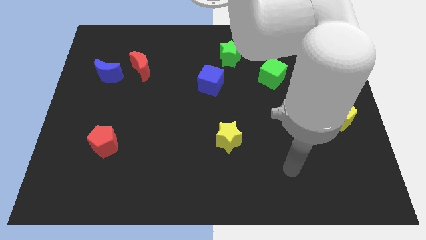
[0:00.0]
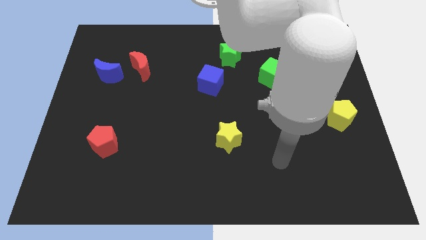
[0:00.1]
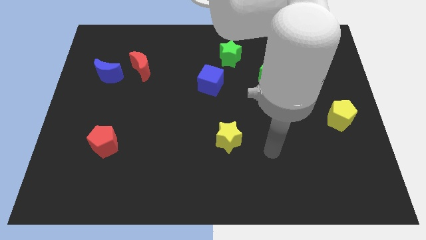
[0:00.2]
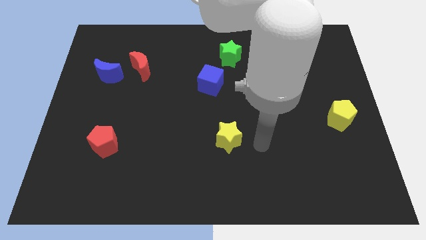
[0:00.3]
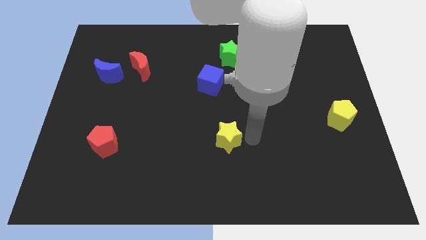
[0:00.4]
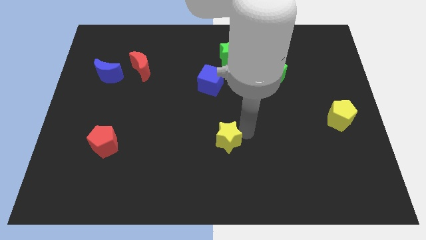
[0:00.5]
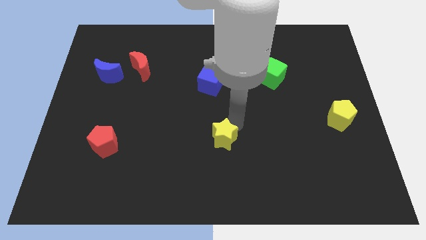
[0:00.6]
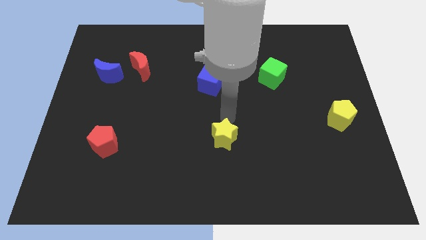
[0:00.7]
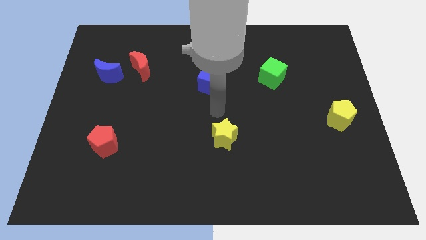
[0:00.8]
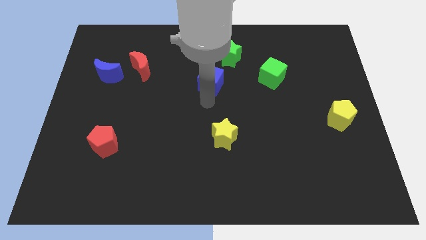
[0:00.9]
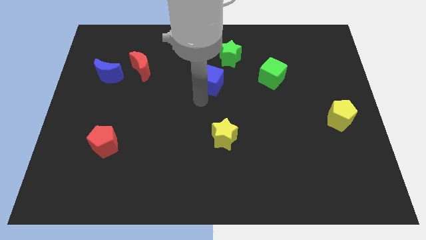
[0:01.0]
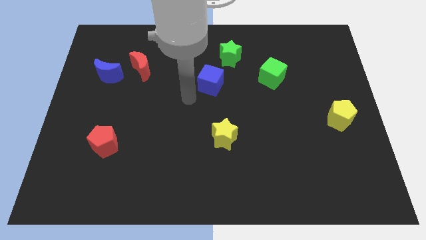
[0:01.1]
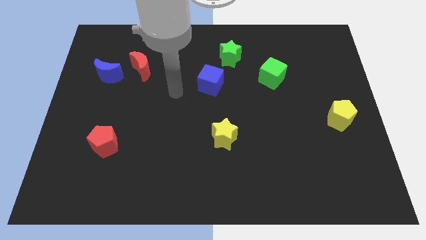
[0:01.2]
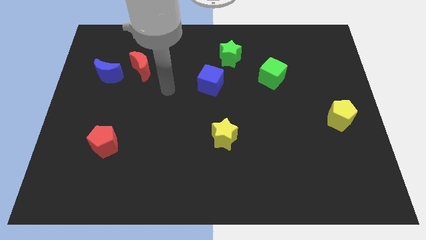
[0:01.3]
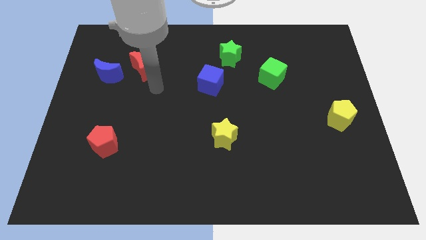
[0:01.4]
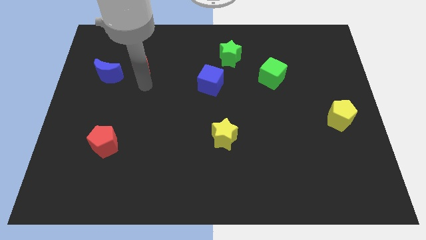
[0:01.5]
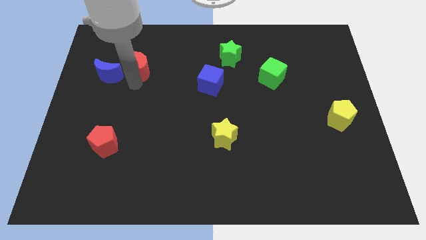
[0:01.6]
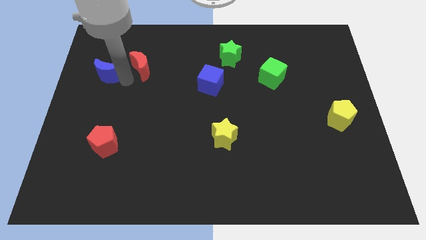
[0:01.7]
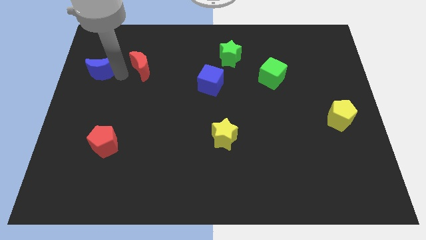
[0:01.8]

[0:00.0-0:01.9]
move the red moon away from the blue moon

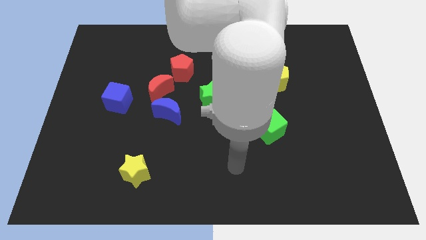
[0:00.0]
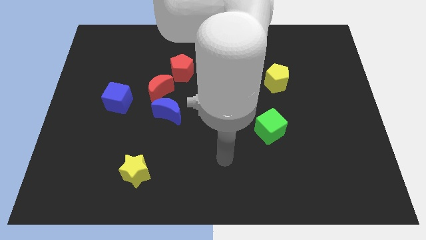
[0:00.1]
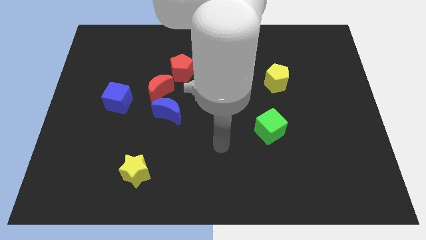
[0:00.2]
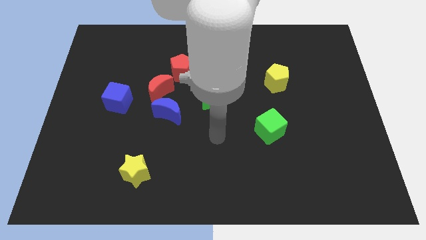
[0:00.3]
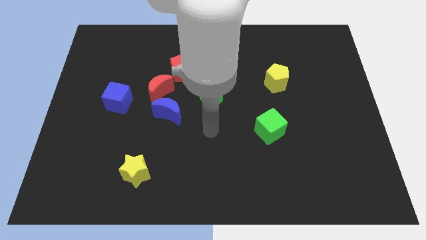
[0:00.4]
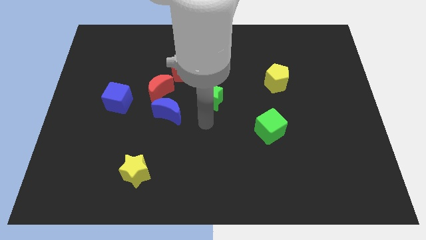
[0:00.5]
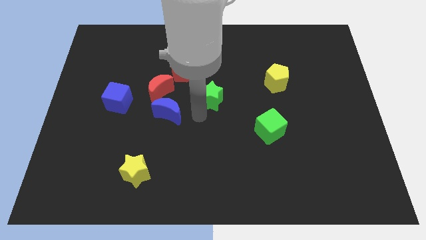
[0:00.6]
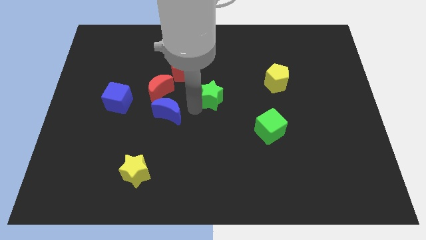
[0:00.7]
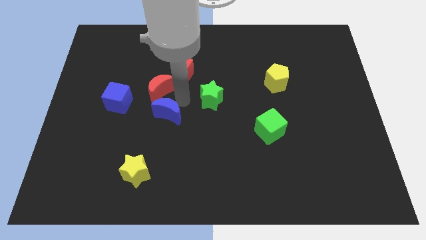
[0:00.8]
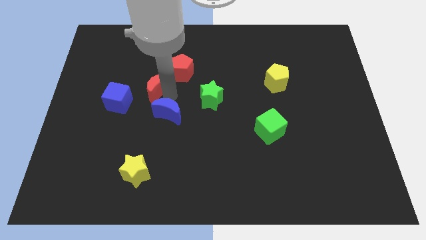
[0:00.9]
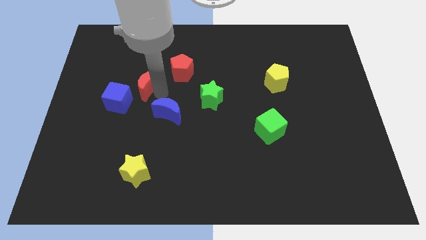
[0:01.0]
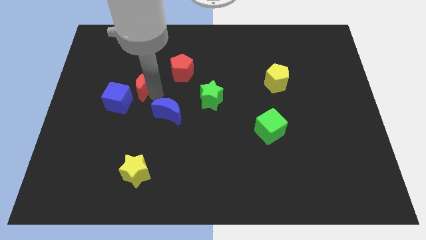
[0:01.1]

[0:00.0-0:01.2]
separate the blue moon from the red moon

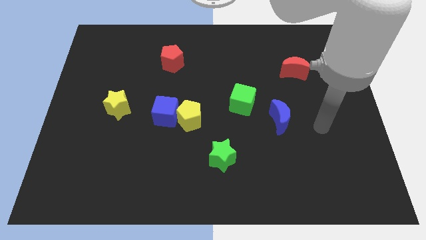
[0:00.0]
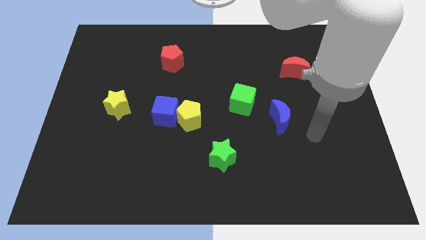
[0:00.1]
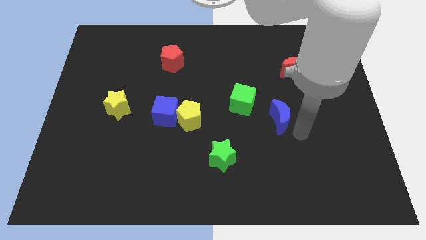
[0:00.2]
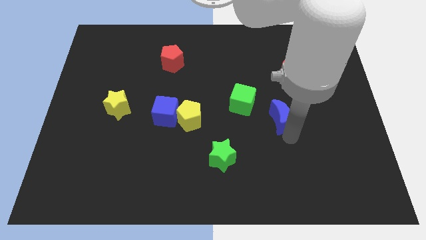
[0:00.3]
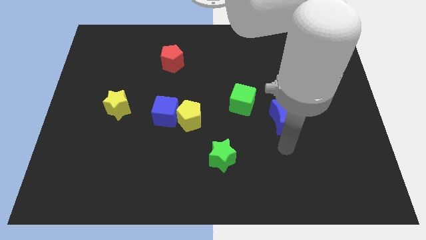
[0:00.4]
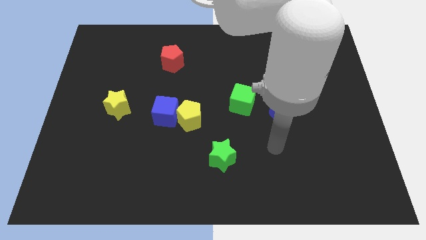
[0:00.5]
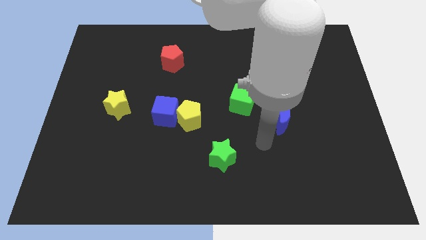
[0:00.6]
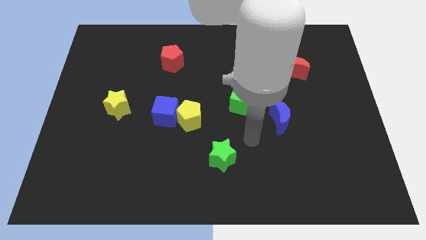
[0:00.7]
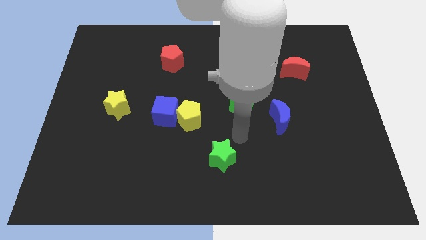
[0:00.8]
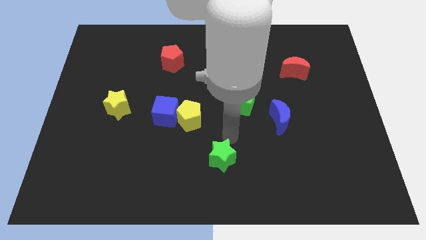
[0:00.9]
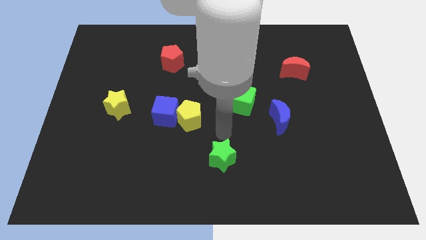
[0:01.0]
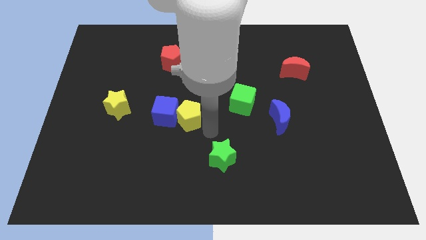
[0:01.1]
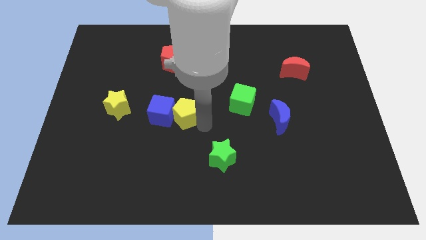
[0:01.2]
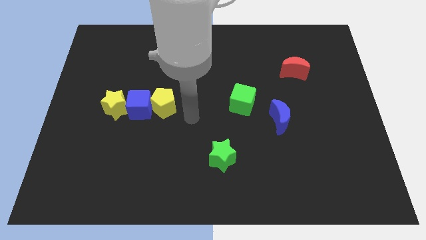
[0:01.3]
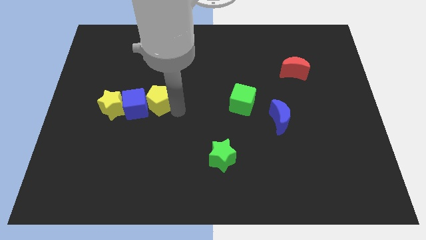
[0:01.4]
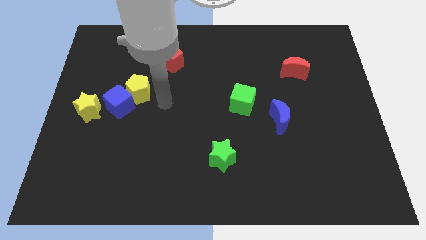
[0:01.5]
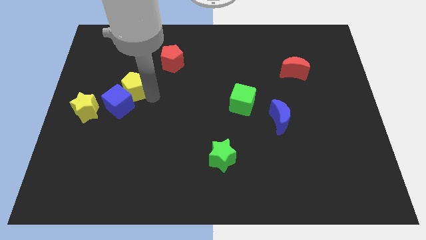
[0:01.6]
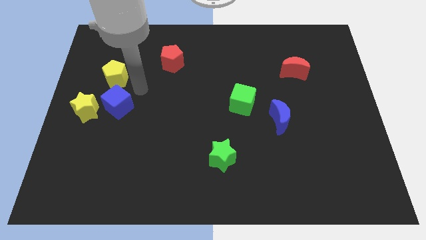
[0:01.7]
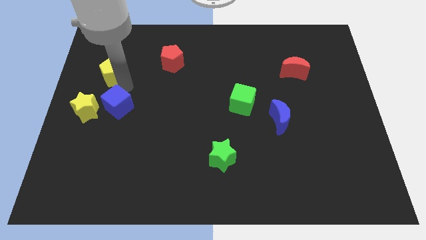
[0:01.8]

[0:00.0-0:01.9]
move the blue cube away from the yellow pentagon

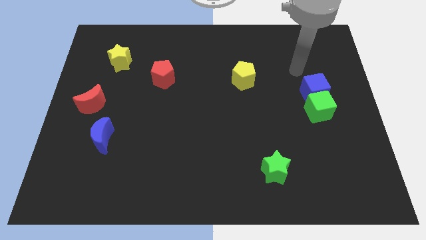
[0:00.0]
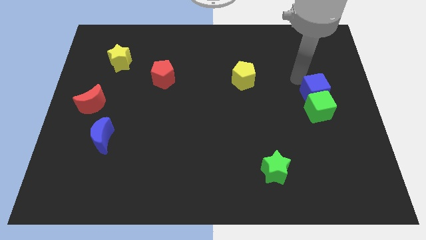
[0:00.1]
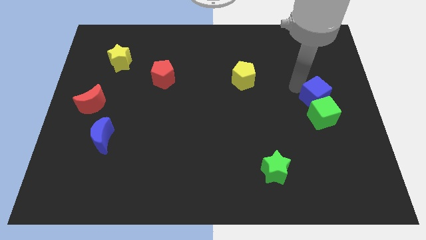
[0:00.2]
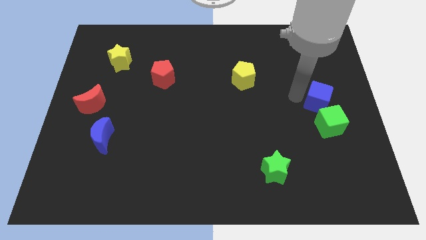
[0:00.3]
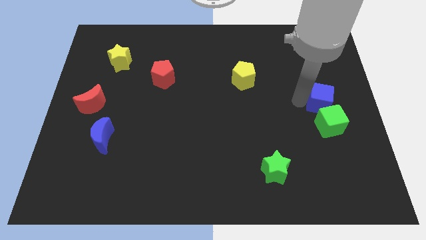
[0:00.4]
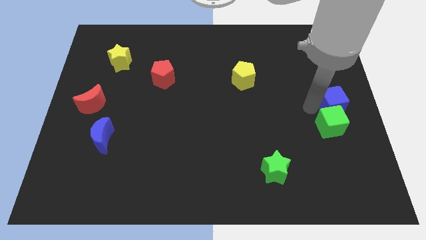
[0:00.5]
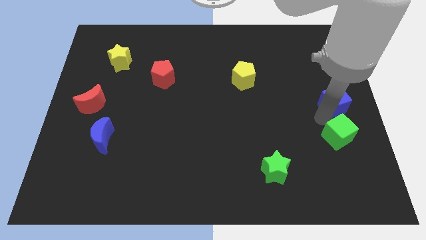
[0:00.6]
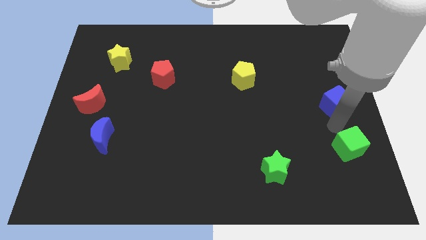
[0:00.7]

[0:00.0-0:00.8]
move the blue cube away from the green cube

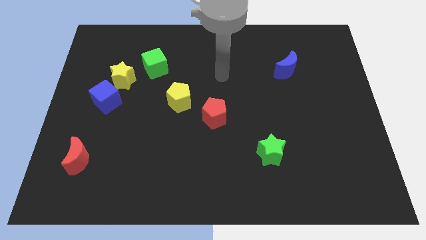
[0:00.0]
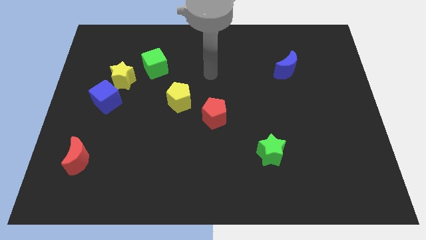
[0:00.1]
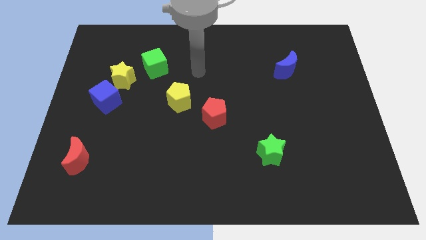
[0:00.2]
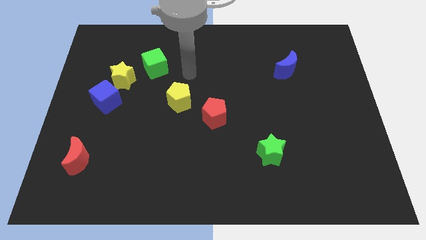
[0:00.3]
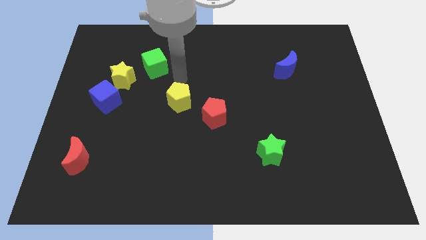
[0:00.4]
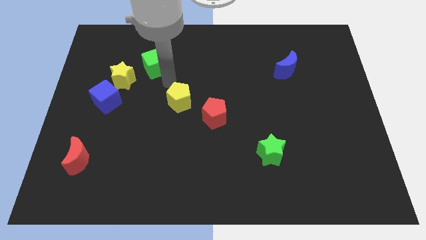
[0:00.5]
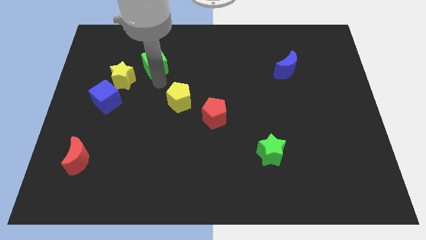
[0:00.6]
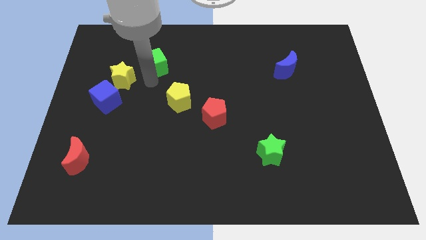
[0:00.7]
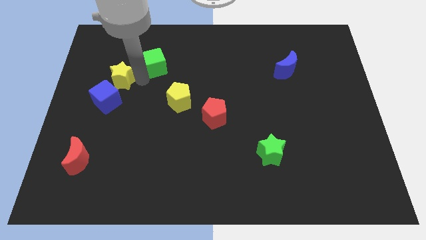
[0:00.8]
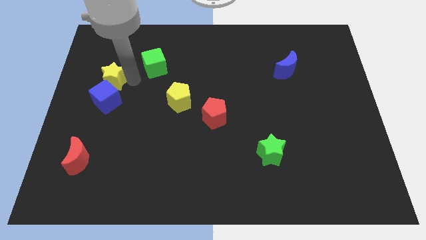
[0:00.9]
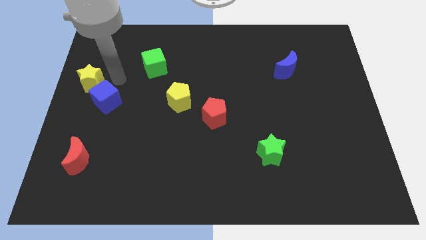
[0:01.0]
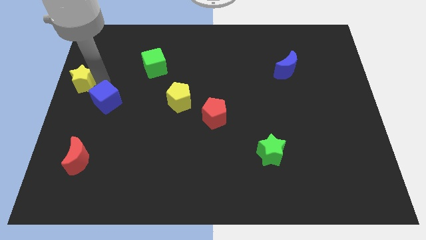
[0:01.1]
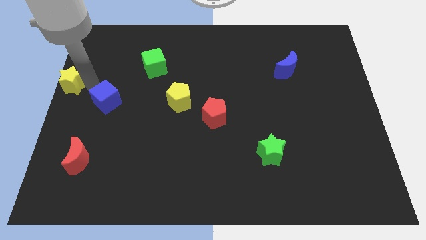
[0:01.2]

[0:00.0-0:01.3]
move the blue cube away from the yellow star

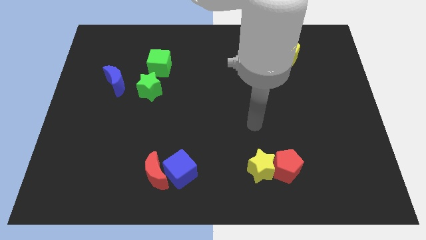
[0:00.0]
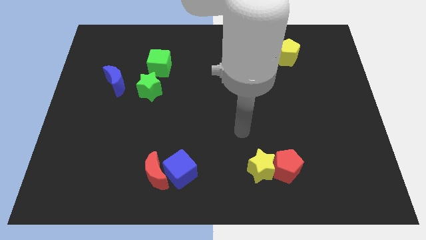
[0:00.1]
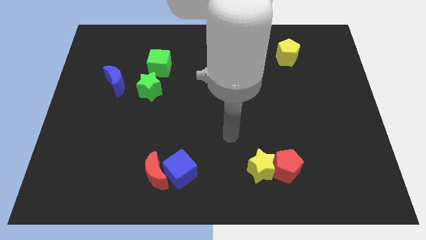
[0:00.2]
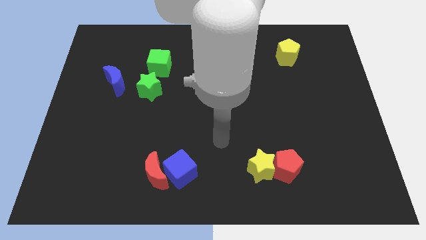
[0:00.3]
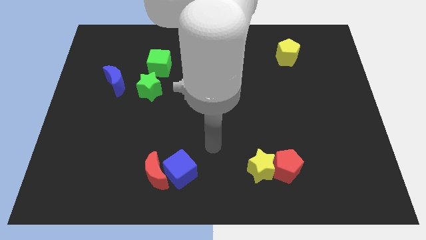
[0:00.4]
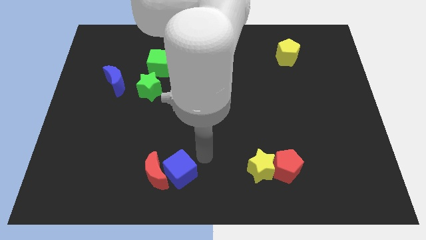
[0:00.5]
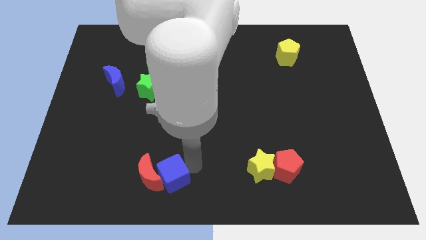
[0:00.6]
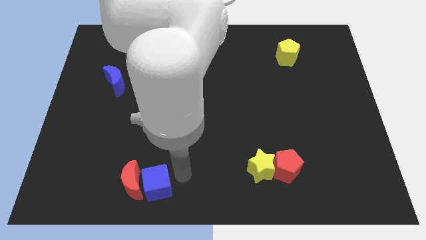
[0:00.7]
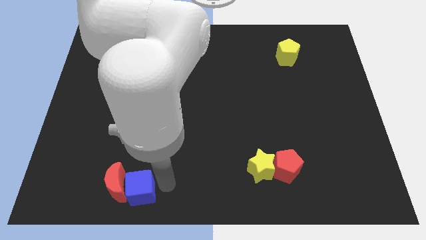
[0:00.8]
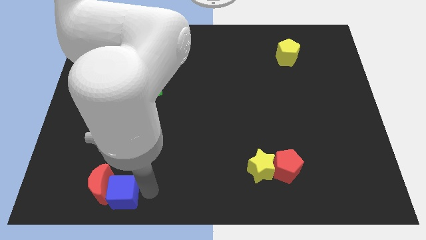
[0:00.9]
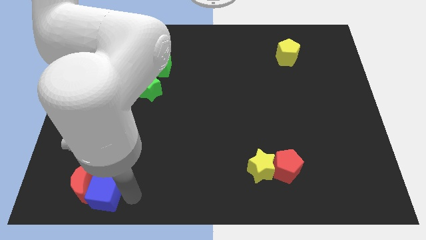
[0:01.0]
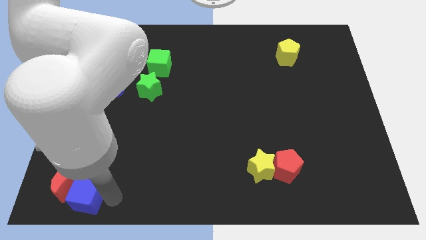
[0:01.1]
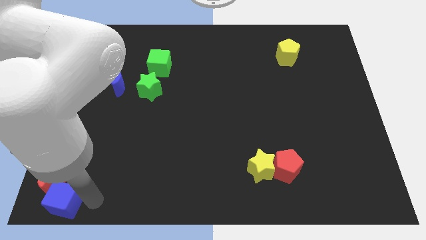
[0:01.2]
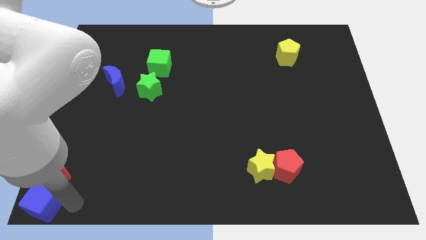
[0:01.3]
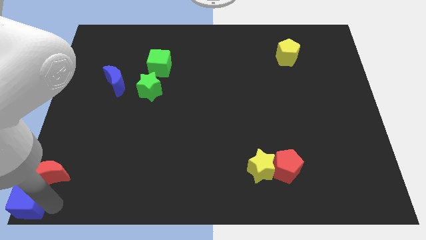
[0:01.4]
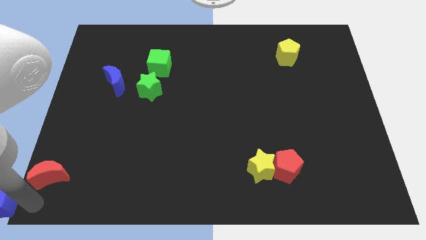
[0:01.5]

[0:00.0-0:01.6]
move the red moon away from the blue cube

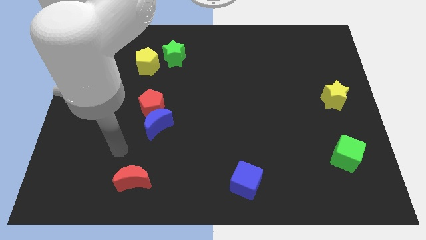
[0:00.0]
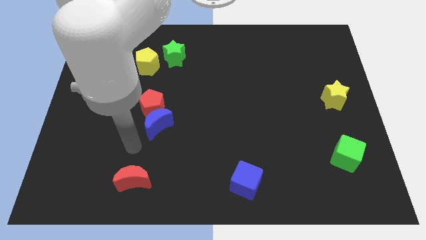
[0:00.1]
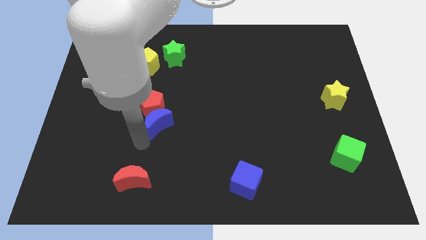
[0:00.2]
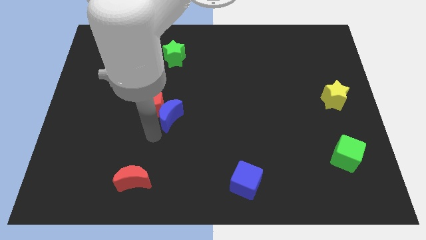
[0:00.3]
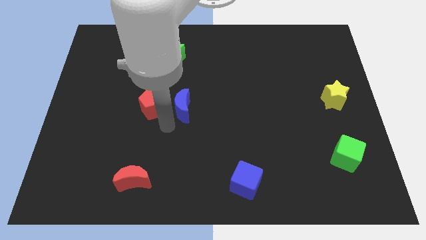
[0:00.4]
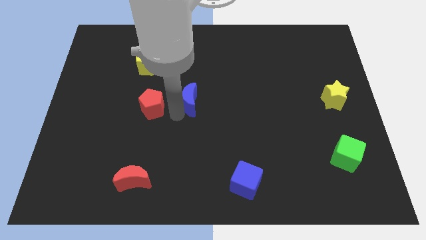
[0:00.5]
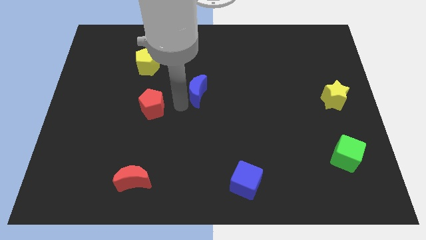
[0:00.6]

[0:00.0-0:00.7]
move the red pentagon away from the blue moon
